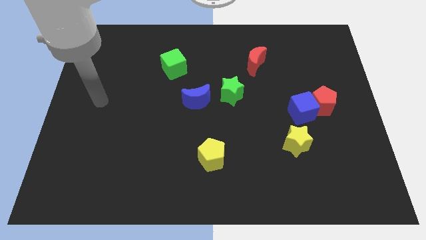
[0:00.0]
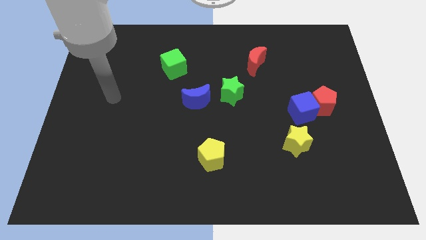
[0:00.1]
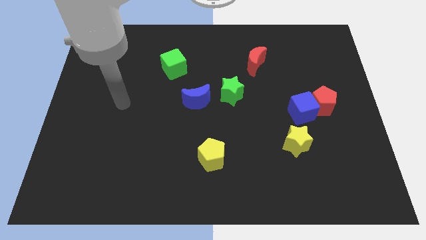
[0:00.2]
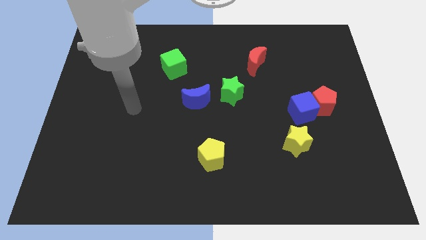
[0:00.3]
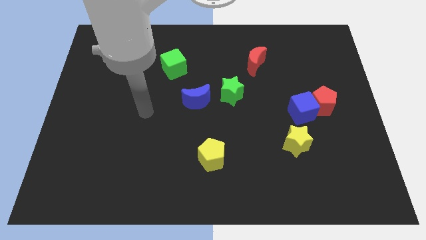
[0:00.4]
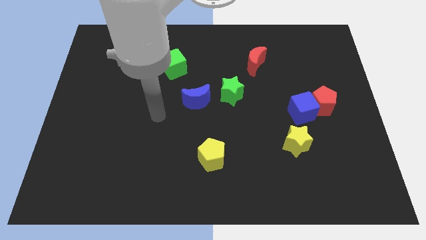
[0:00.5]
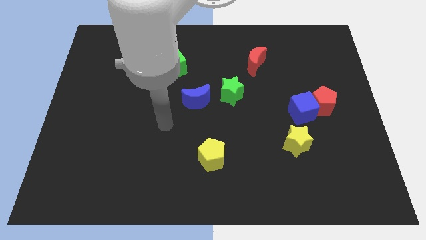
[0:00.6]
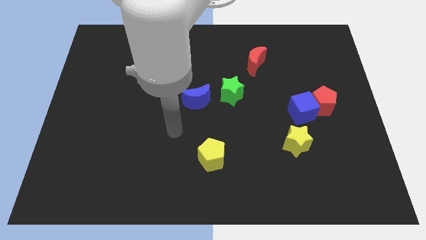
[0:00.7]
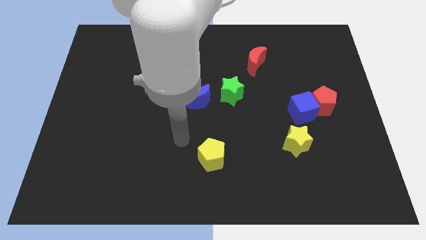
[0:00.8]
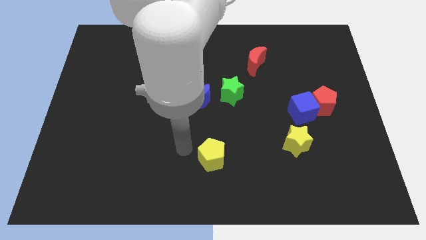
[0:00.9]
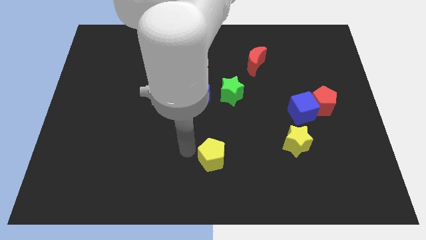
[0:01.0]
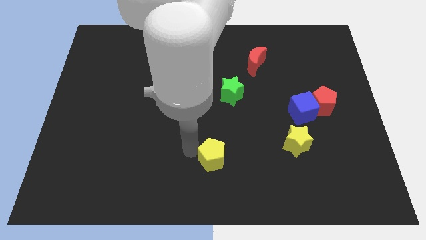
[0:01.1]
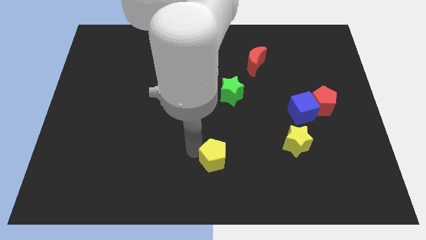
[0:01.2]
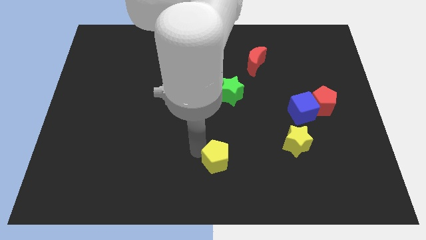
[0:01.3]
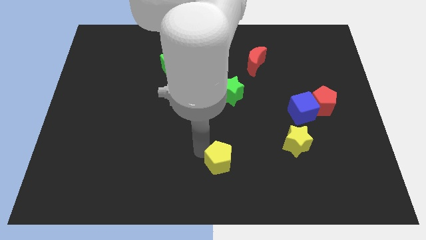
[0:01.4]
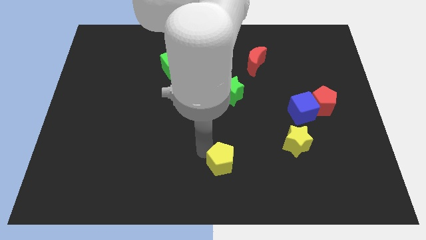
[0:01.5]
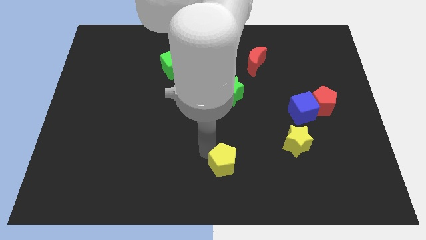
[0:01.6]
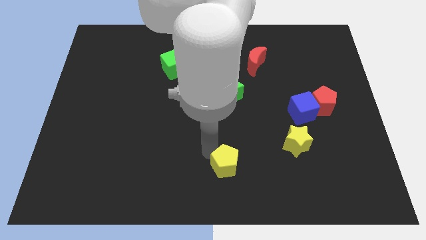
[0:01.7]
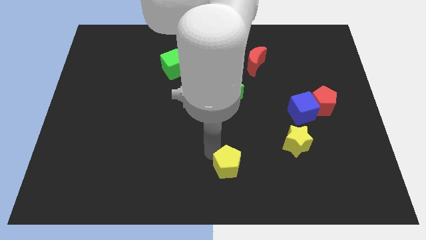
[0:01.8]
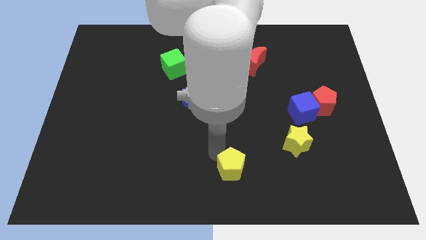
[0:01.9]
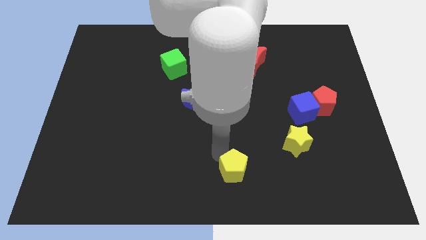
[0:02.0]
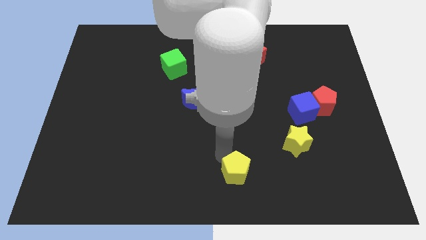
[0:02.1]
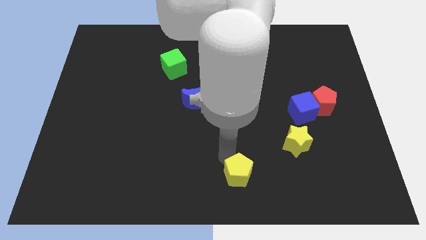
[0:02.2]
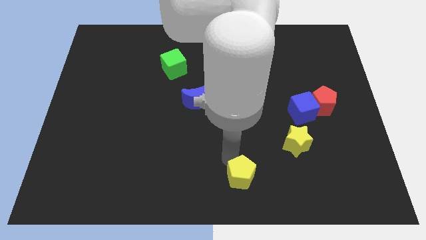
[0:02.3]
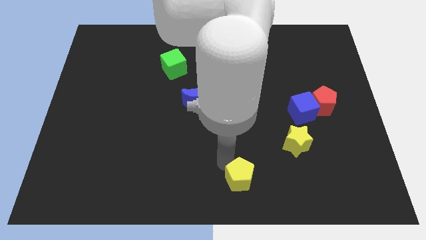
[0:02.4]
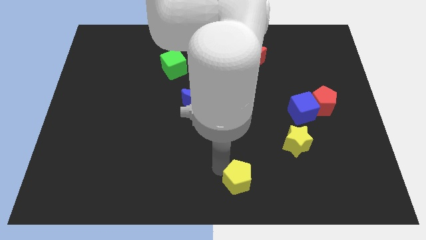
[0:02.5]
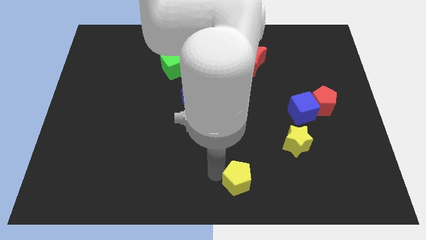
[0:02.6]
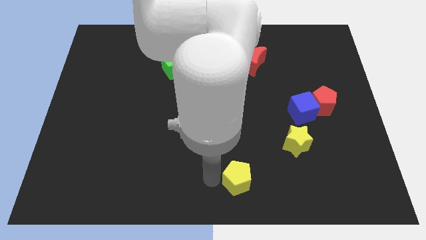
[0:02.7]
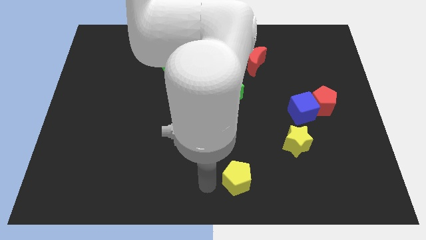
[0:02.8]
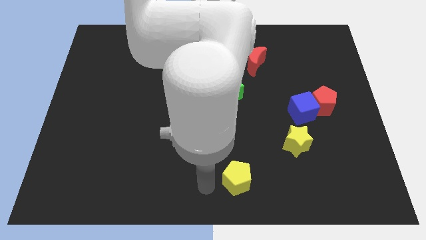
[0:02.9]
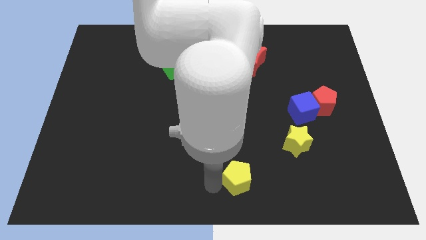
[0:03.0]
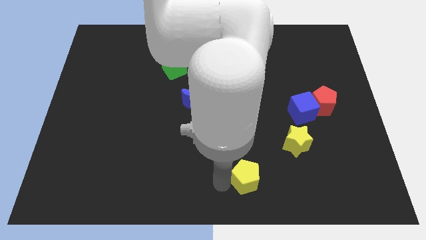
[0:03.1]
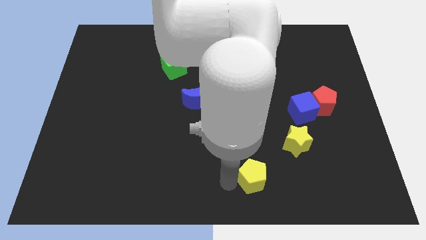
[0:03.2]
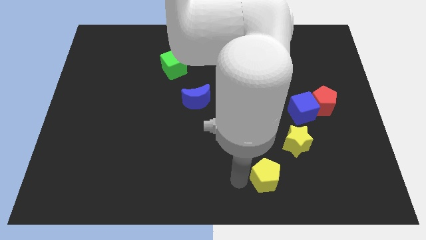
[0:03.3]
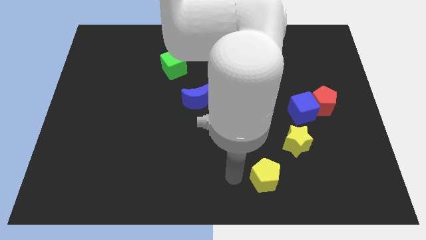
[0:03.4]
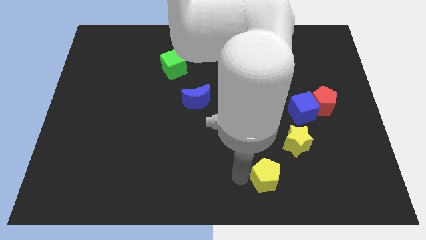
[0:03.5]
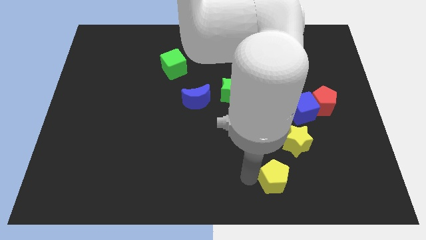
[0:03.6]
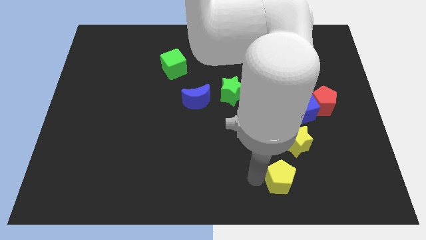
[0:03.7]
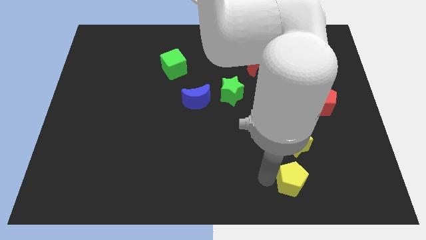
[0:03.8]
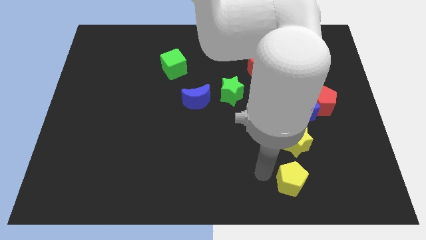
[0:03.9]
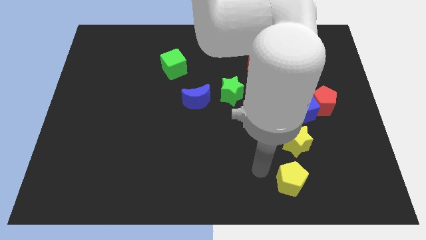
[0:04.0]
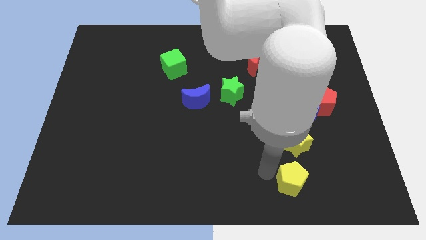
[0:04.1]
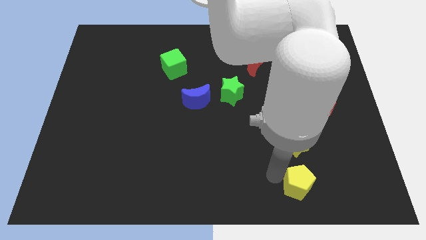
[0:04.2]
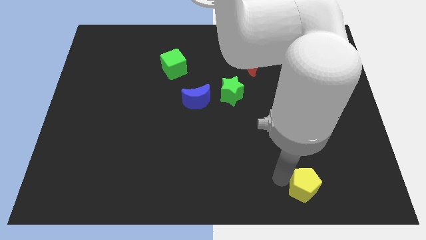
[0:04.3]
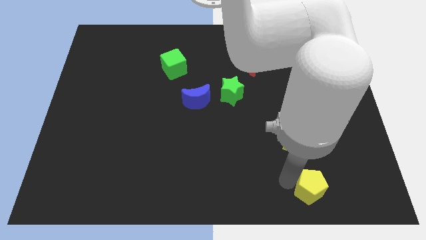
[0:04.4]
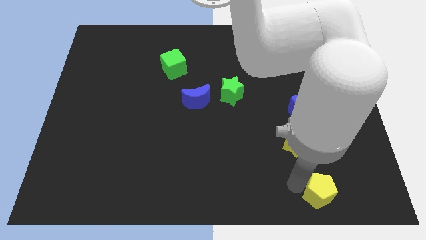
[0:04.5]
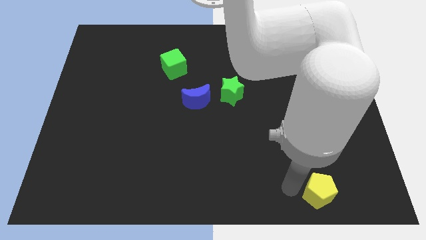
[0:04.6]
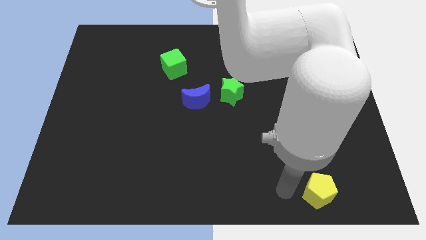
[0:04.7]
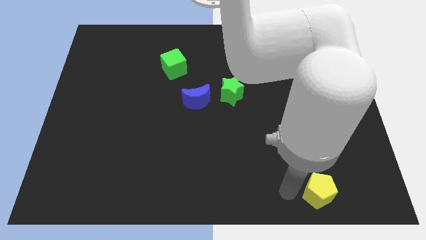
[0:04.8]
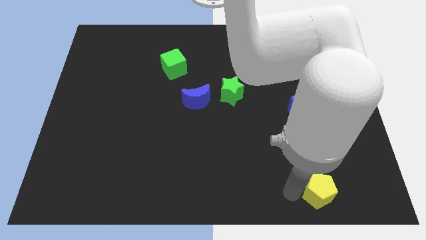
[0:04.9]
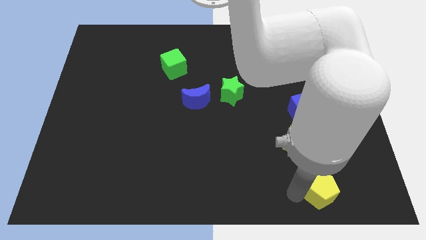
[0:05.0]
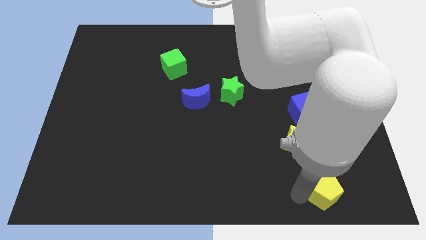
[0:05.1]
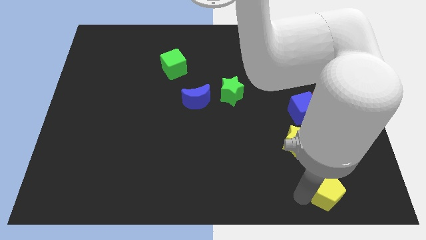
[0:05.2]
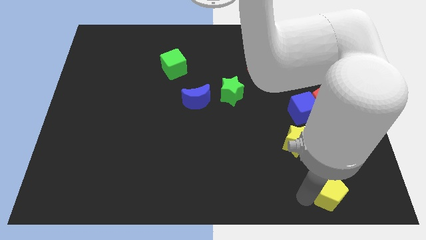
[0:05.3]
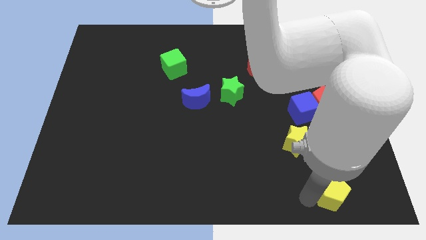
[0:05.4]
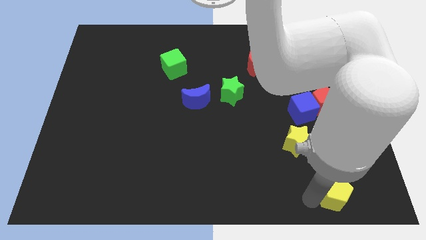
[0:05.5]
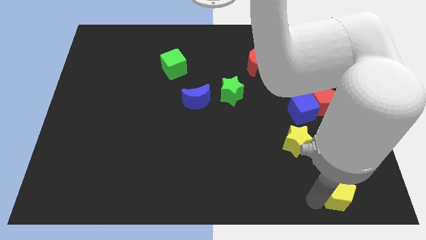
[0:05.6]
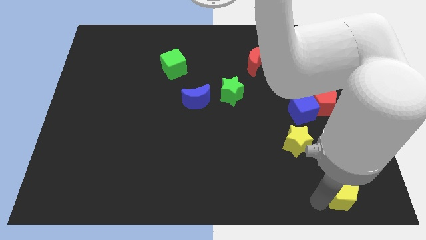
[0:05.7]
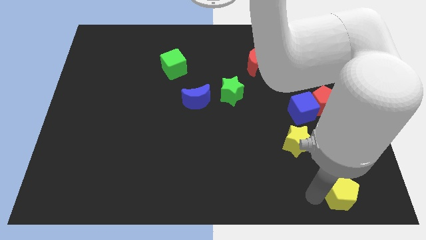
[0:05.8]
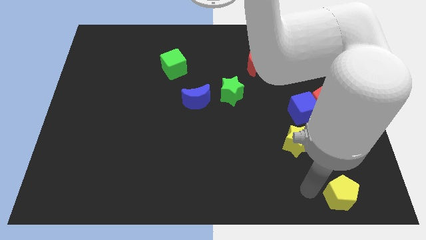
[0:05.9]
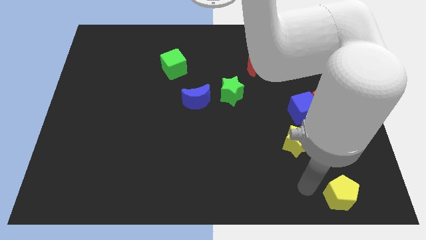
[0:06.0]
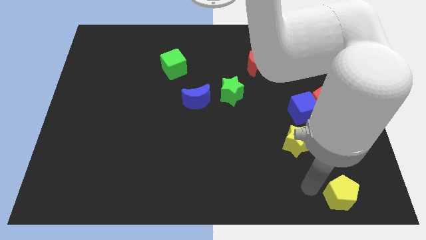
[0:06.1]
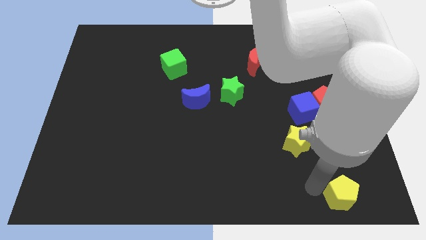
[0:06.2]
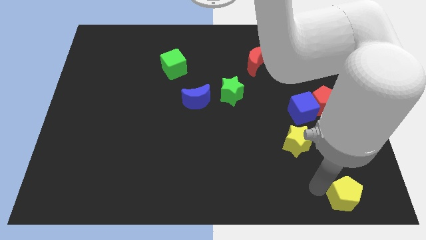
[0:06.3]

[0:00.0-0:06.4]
slide the yellow pentagon to the bottom right corner
